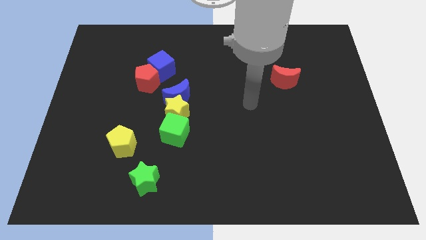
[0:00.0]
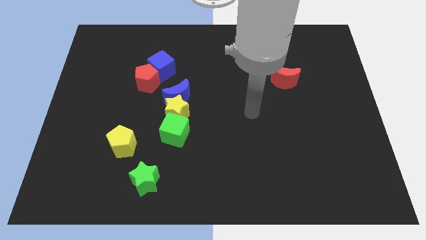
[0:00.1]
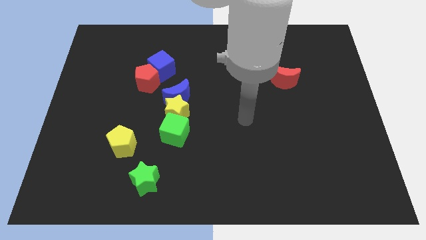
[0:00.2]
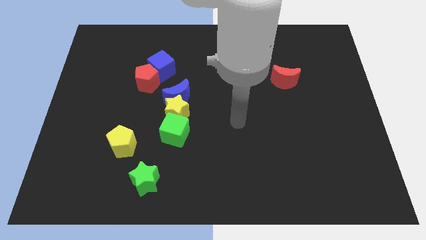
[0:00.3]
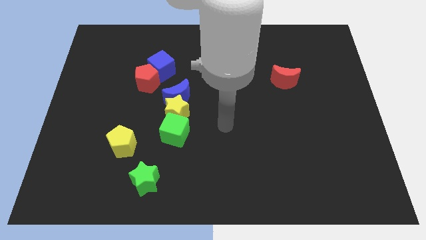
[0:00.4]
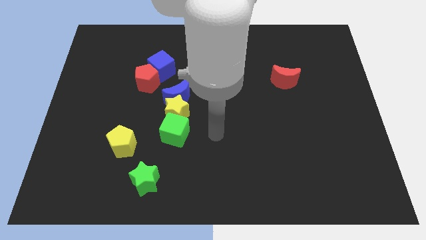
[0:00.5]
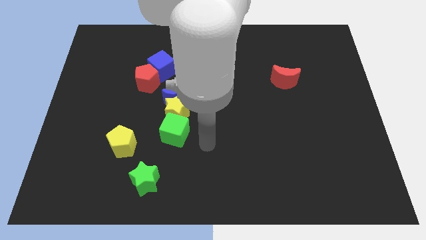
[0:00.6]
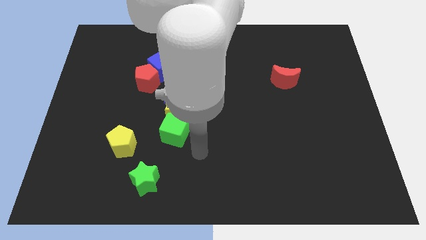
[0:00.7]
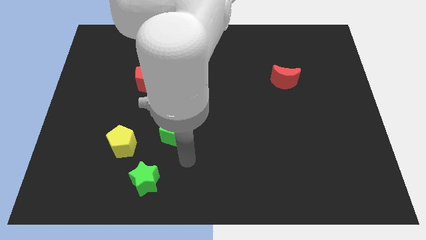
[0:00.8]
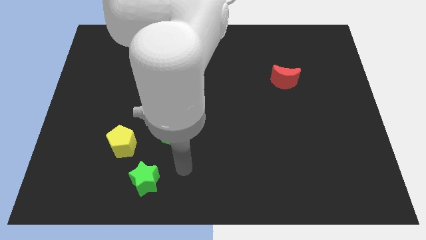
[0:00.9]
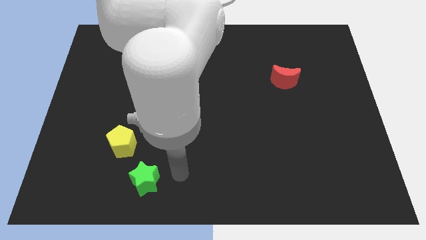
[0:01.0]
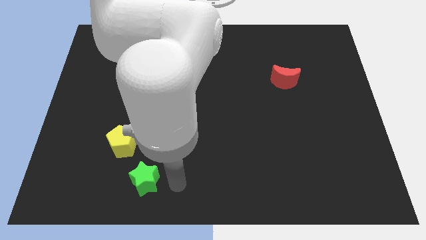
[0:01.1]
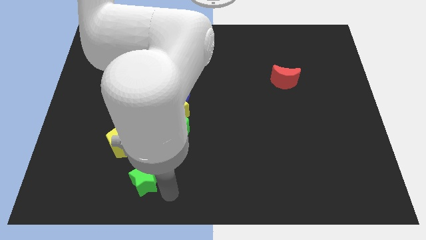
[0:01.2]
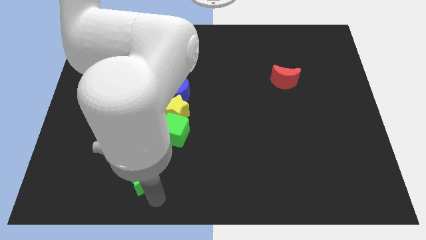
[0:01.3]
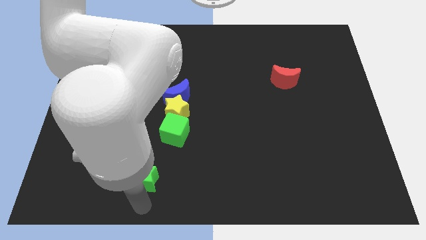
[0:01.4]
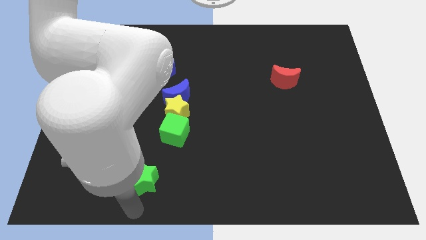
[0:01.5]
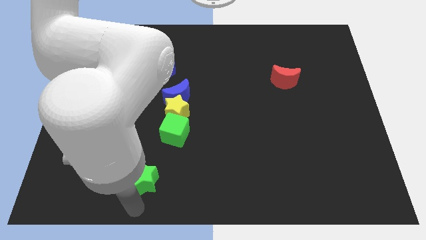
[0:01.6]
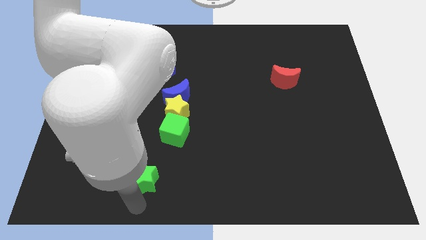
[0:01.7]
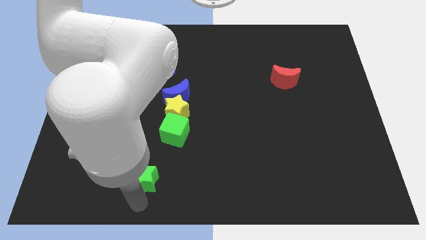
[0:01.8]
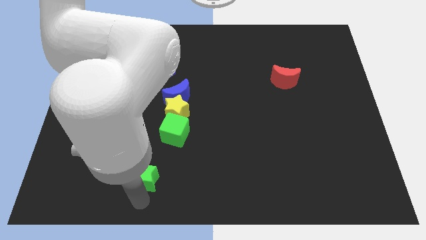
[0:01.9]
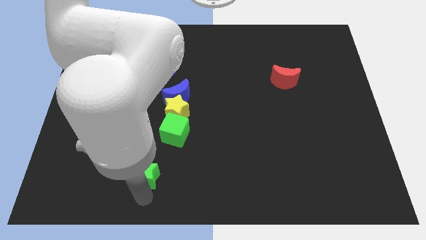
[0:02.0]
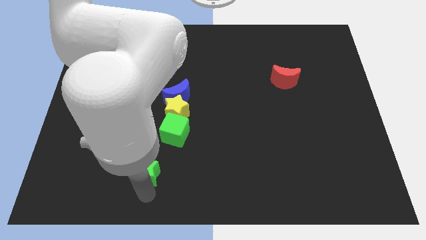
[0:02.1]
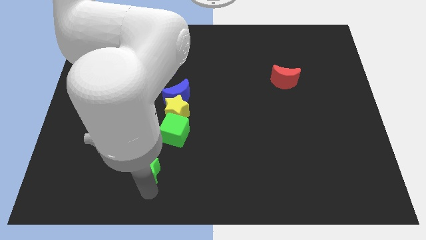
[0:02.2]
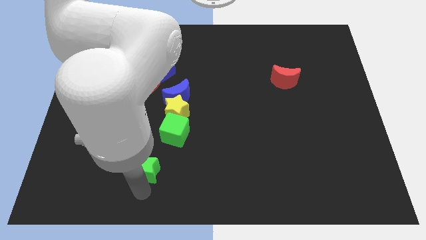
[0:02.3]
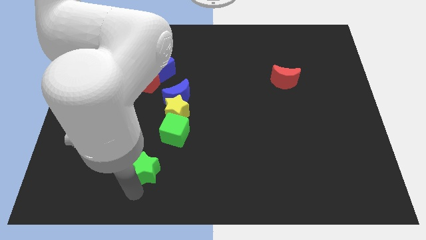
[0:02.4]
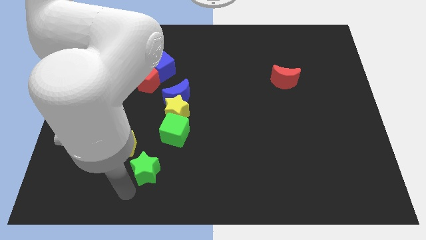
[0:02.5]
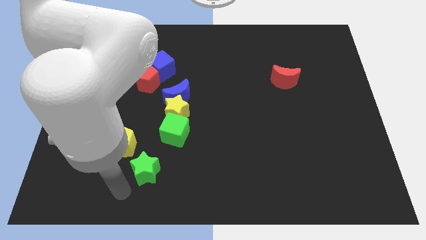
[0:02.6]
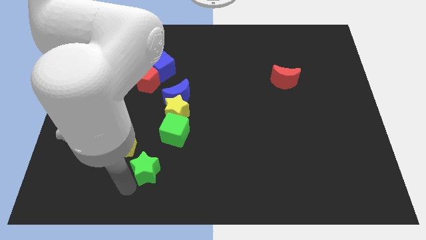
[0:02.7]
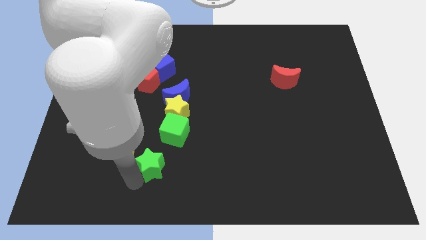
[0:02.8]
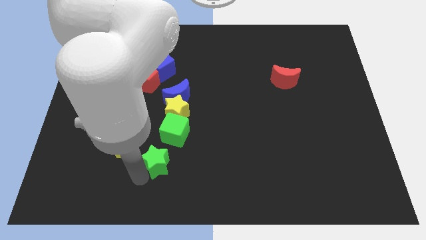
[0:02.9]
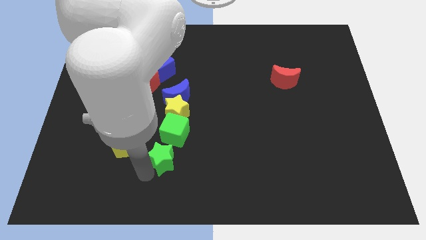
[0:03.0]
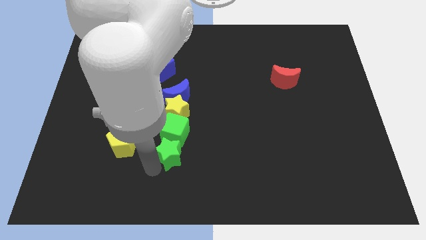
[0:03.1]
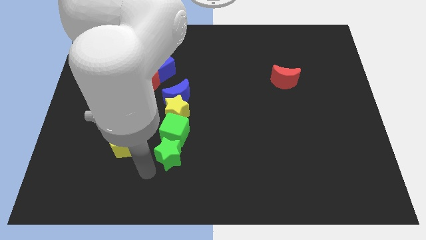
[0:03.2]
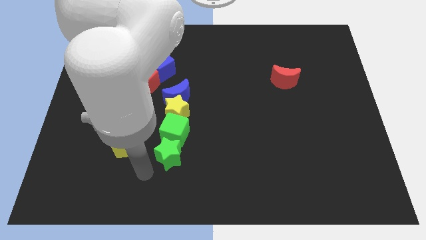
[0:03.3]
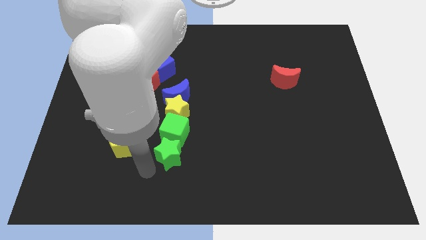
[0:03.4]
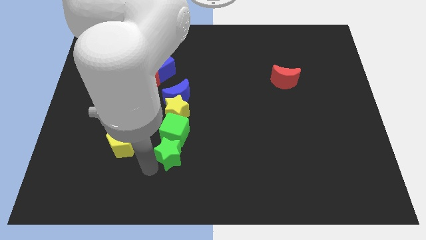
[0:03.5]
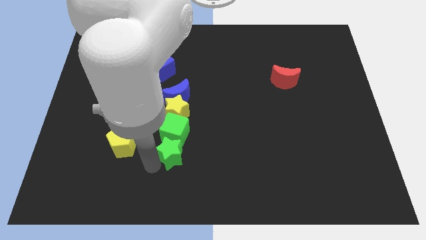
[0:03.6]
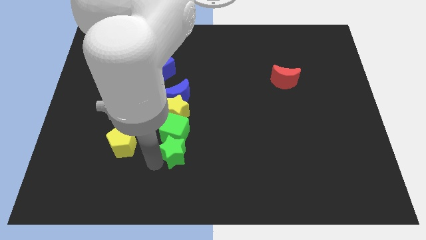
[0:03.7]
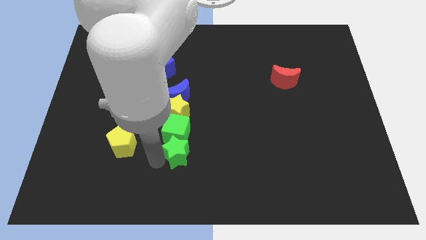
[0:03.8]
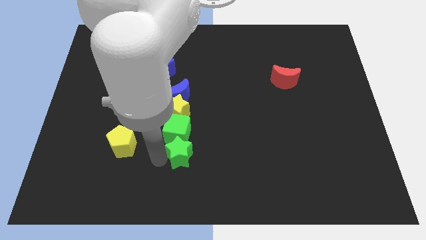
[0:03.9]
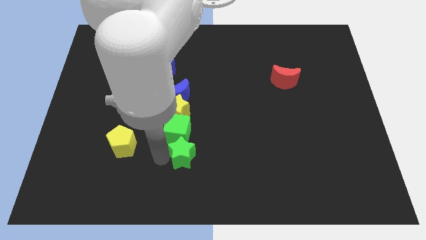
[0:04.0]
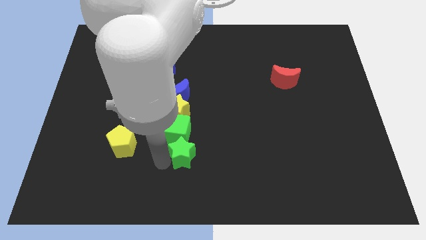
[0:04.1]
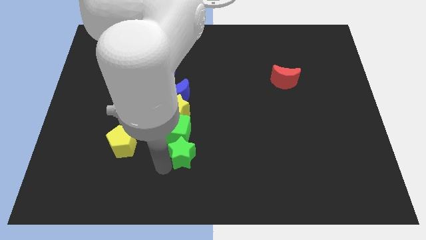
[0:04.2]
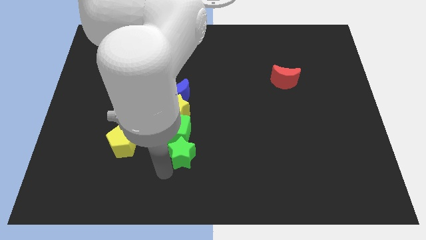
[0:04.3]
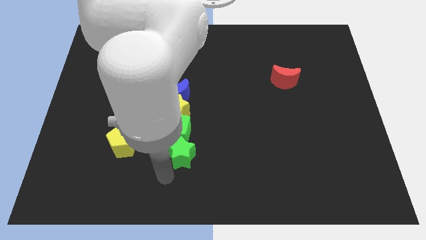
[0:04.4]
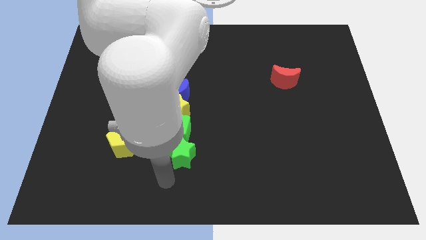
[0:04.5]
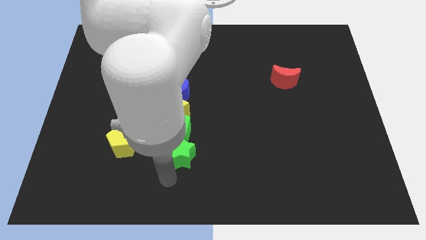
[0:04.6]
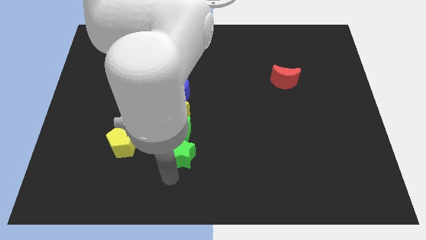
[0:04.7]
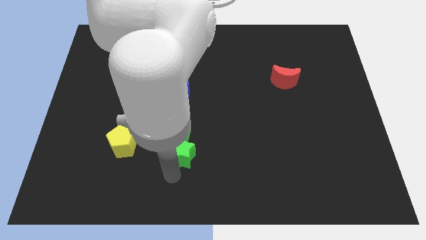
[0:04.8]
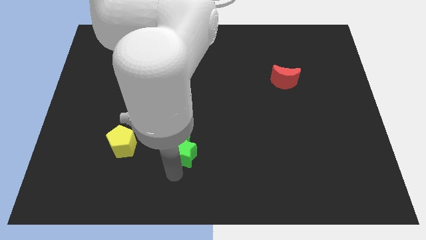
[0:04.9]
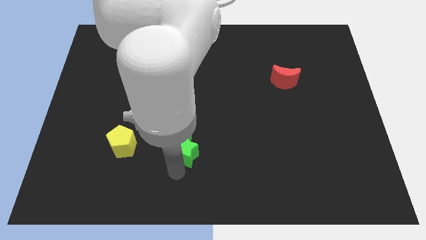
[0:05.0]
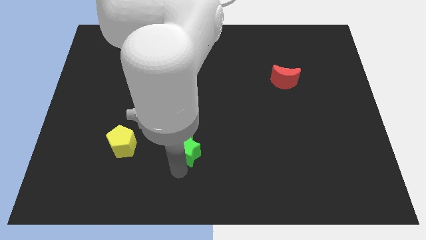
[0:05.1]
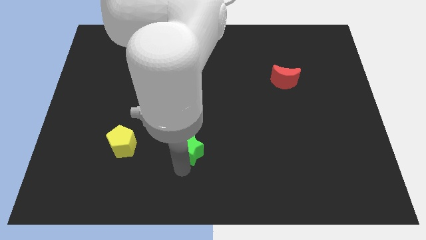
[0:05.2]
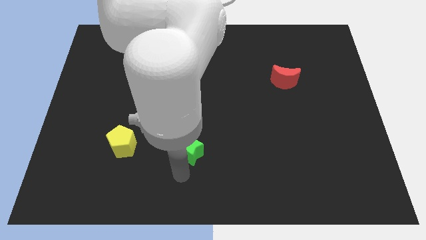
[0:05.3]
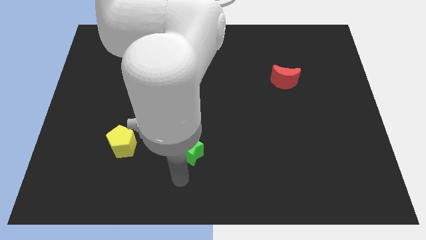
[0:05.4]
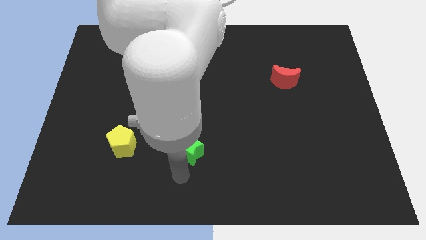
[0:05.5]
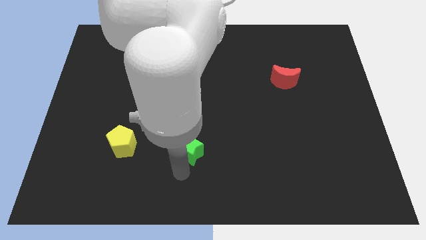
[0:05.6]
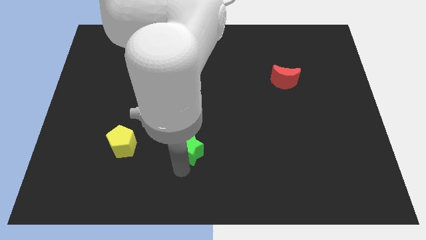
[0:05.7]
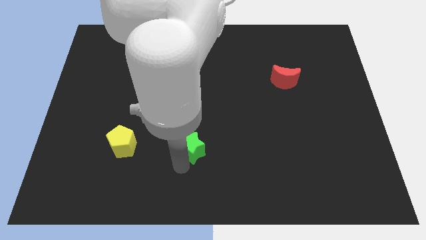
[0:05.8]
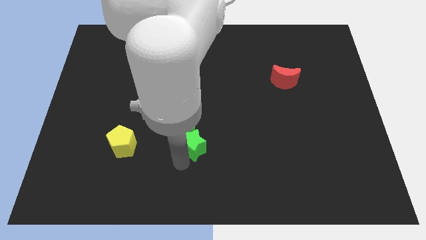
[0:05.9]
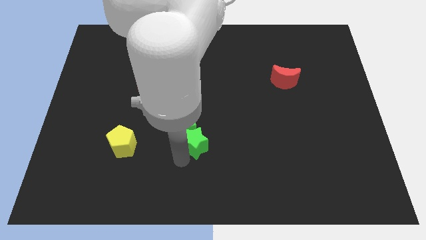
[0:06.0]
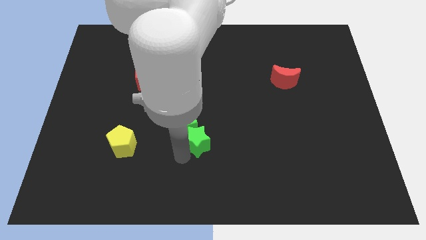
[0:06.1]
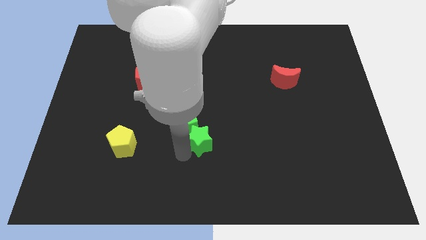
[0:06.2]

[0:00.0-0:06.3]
slide the green star to the center of the board
